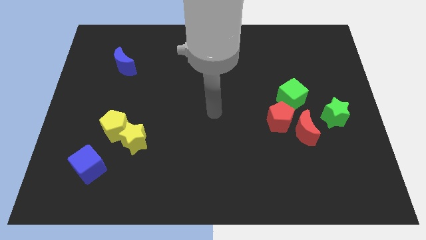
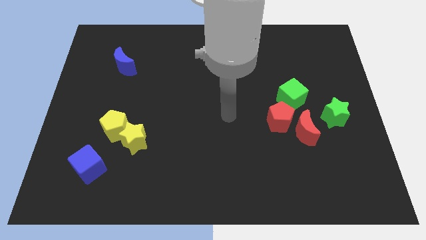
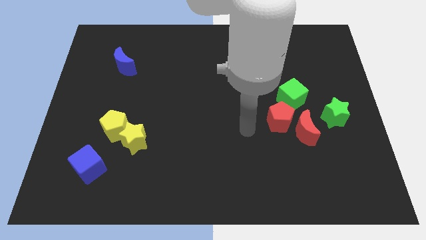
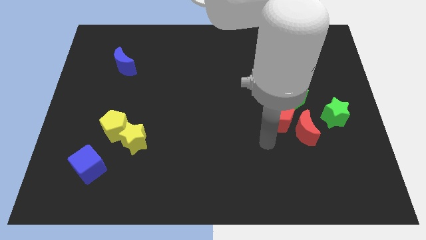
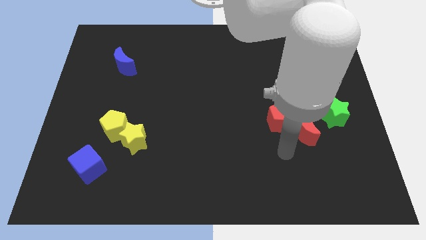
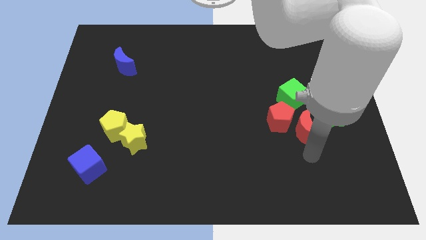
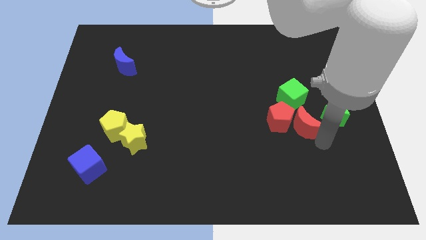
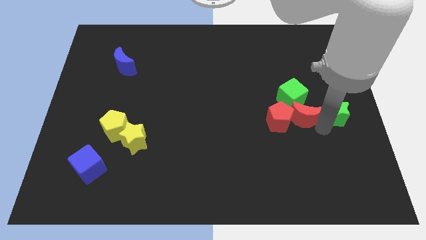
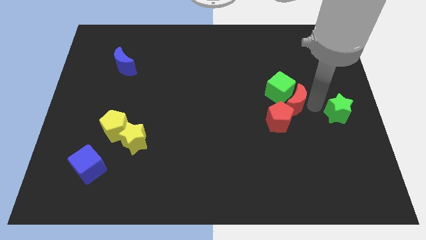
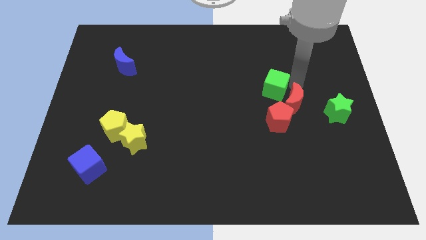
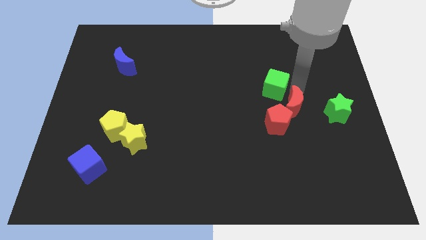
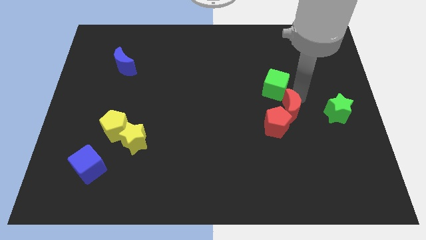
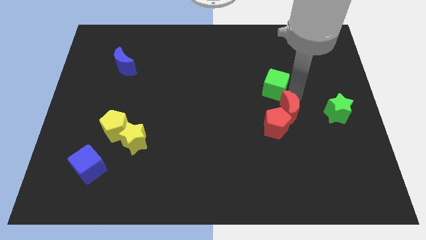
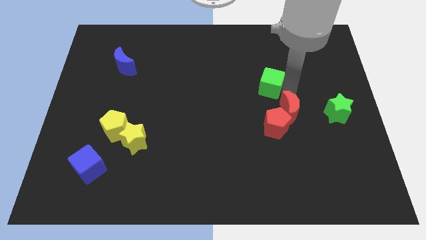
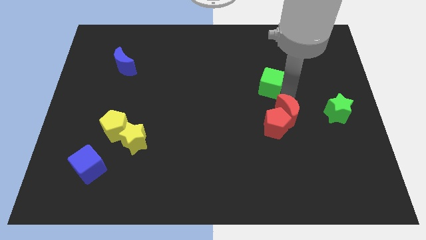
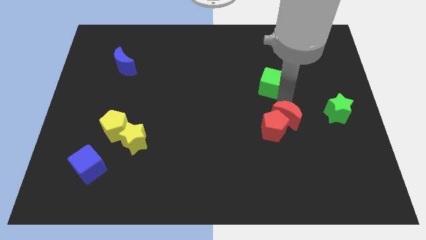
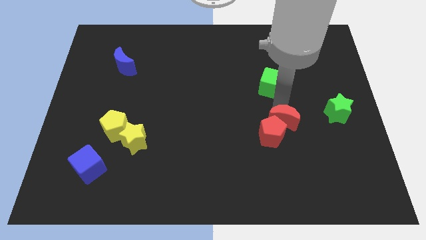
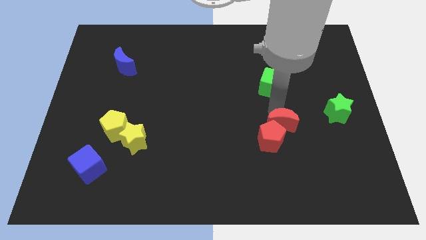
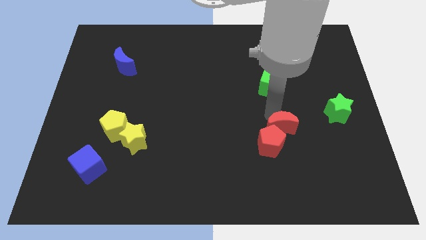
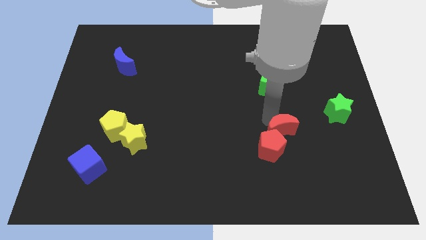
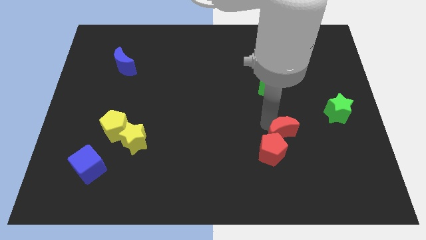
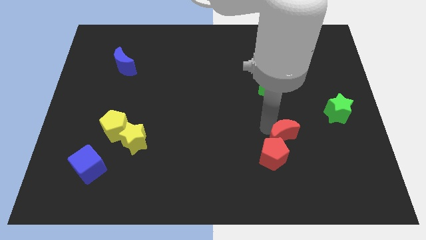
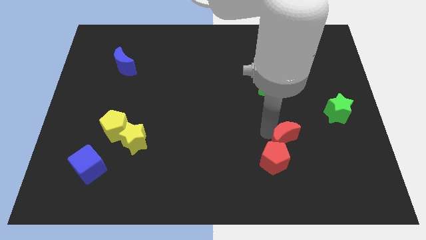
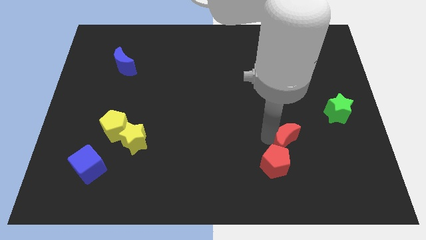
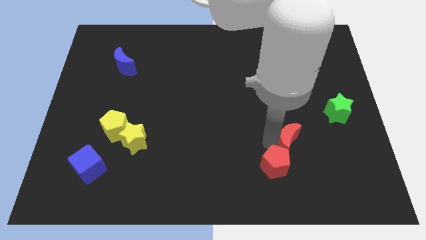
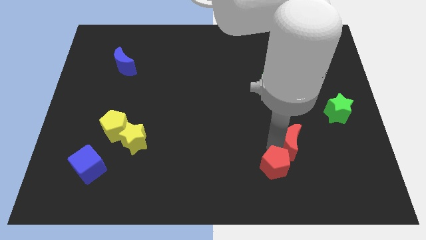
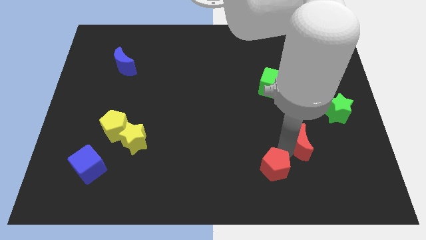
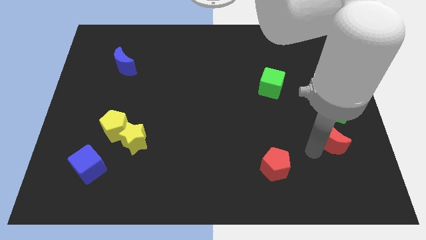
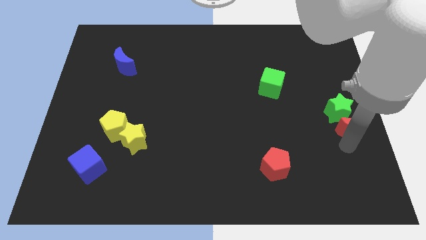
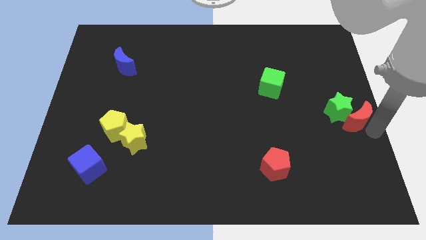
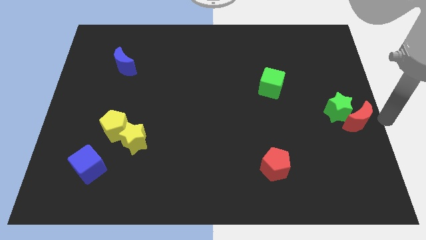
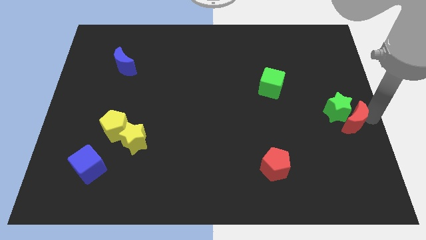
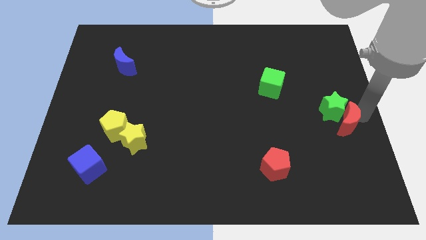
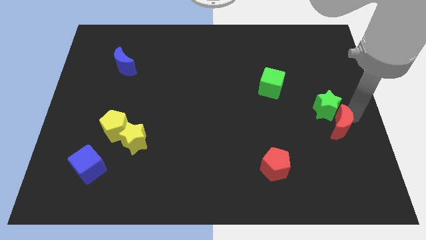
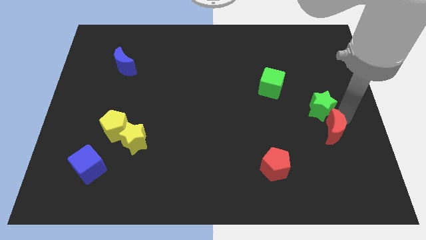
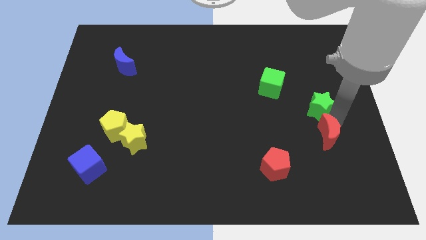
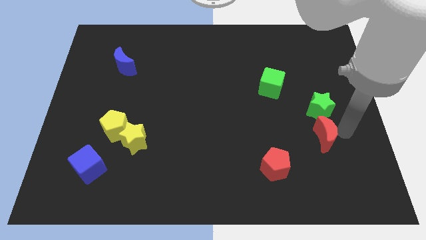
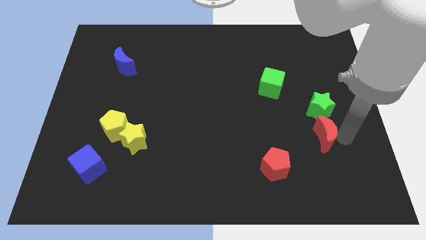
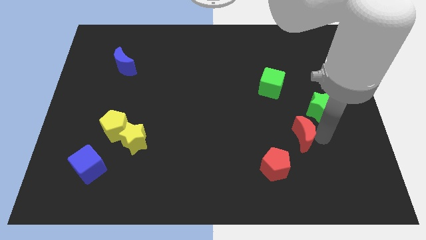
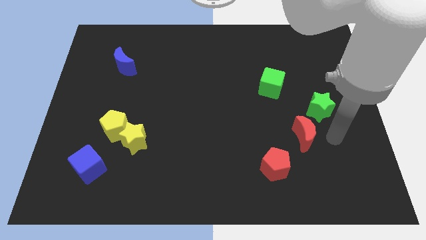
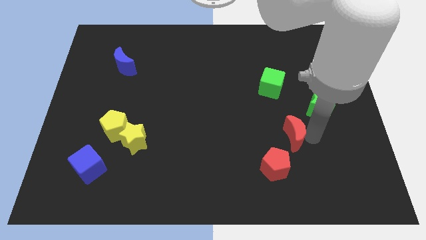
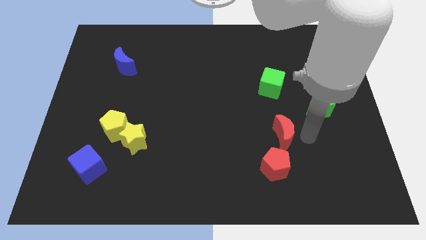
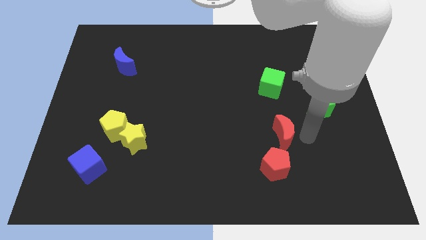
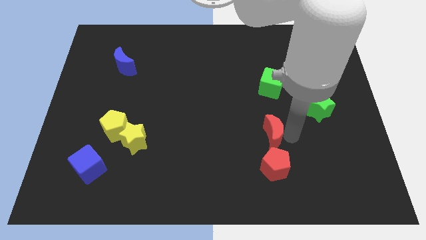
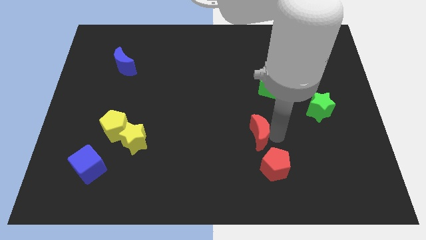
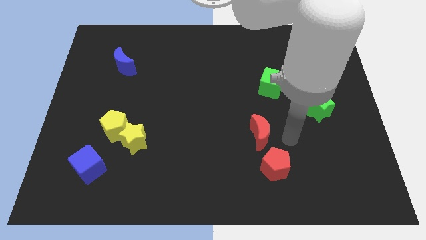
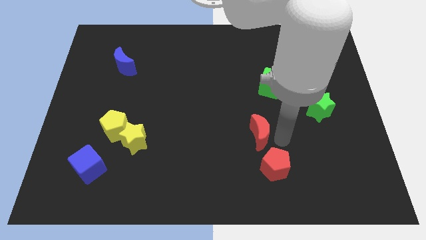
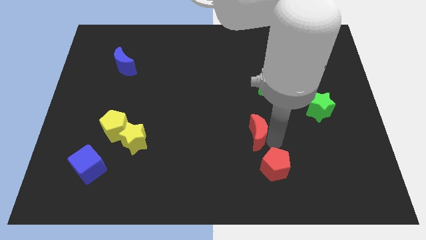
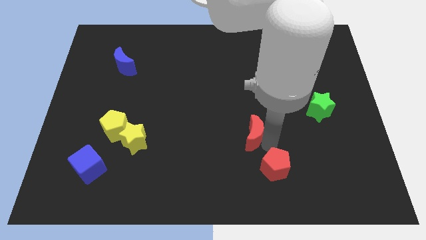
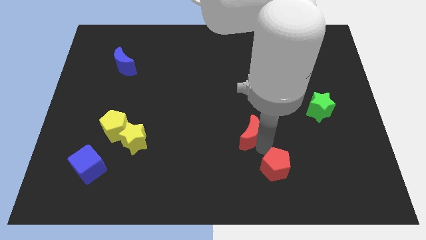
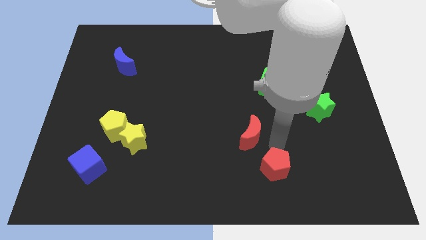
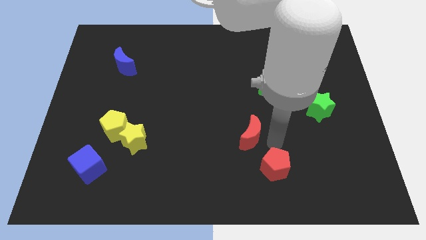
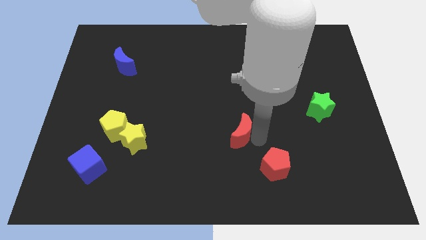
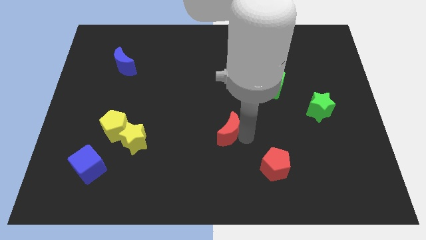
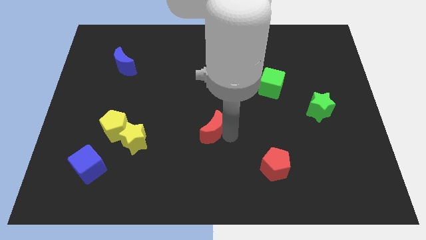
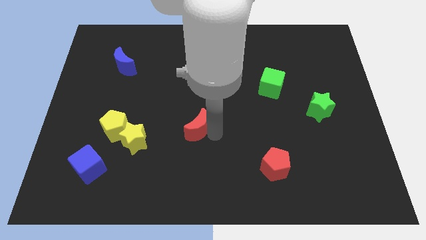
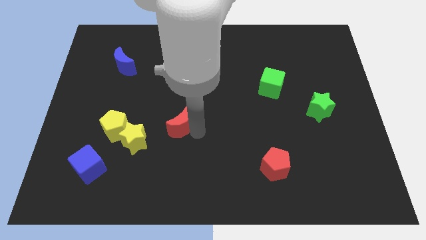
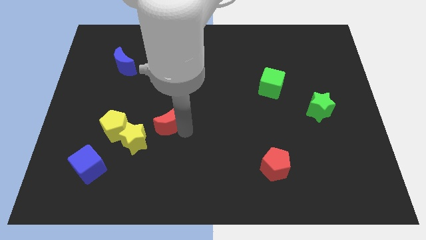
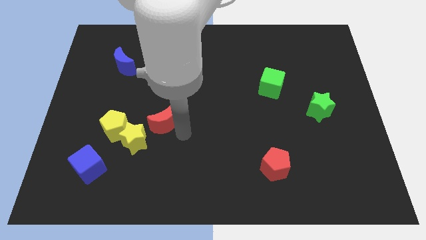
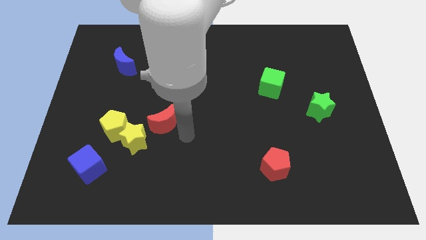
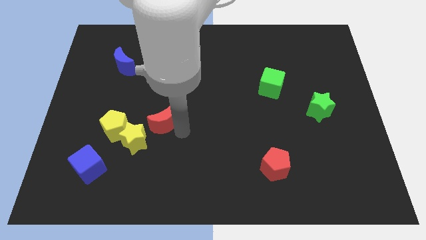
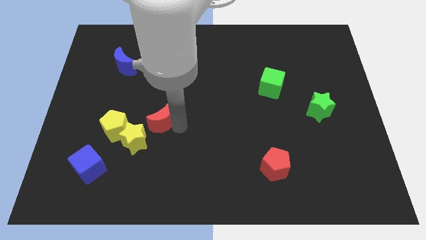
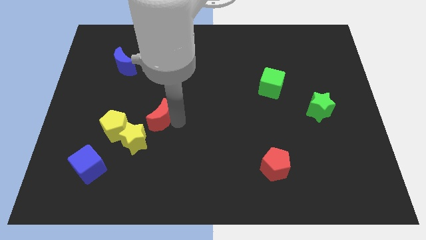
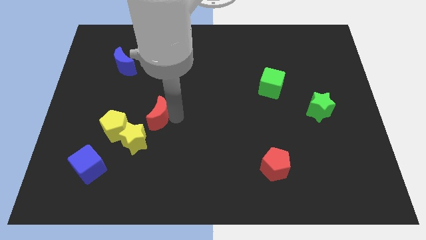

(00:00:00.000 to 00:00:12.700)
push the red moon to the top right of the yellow pentagon

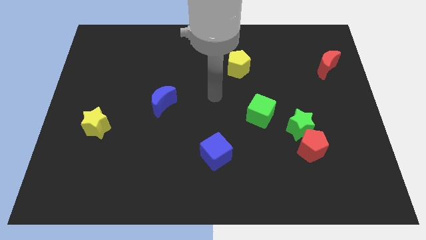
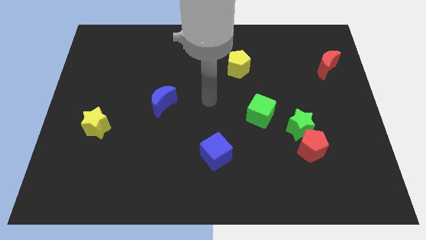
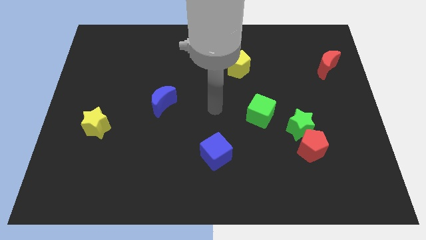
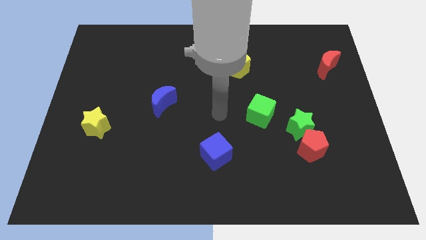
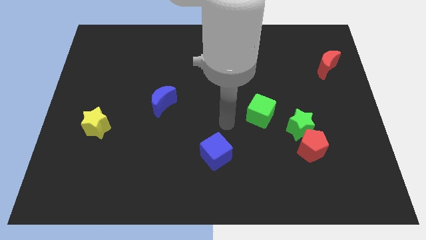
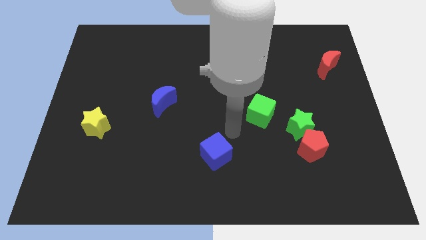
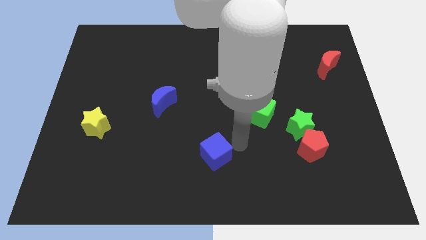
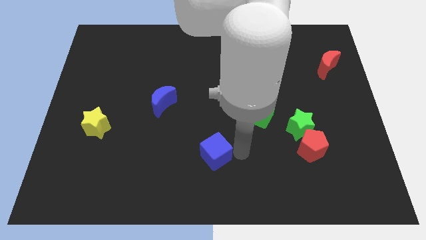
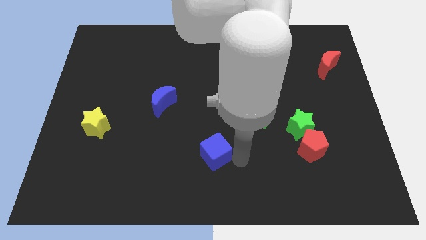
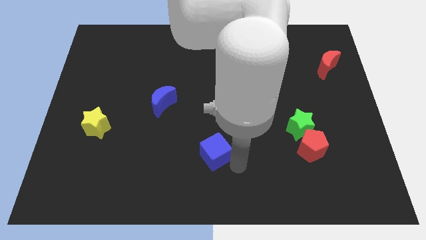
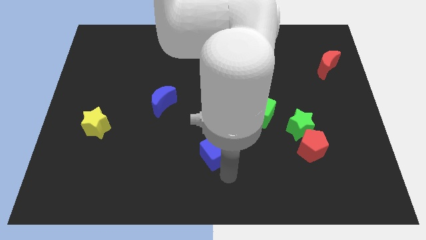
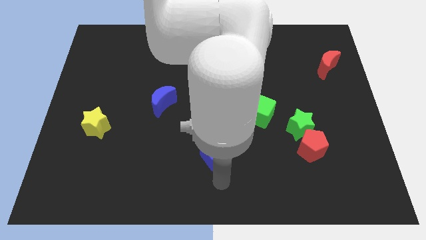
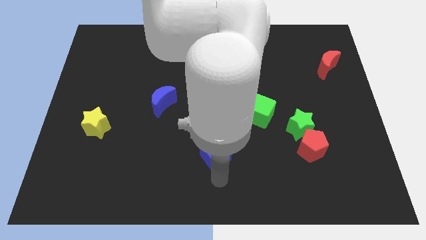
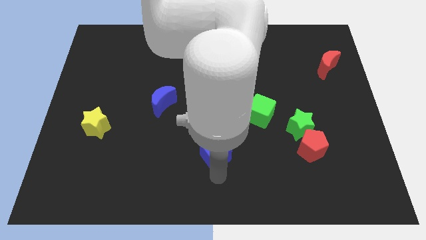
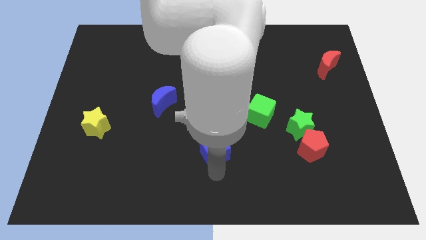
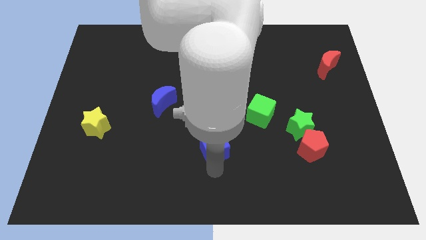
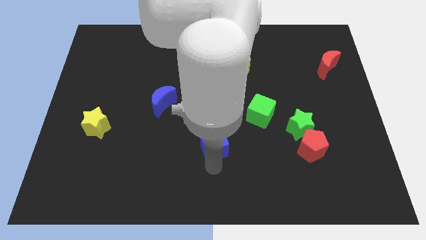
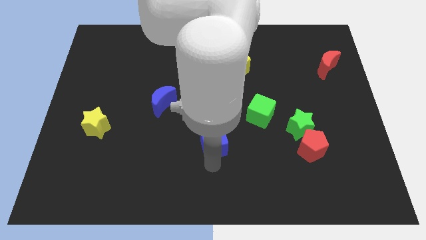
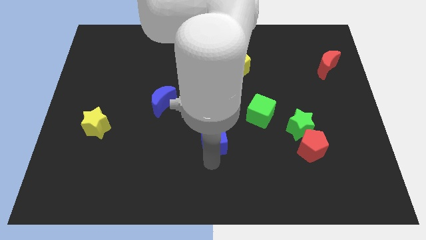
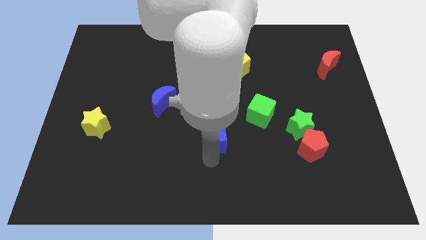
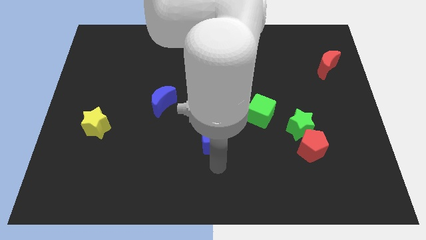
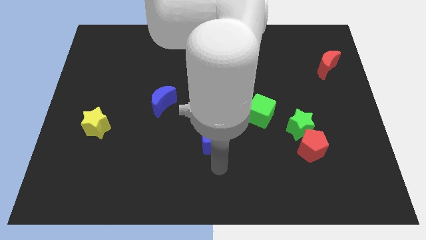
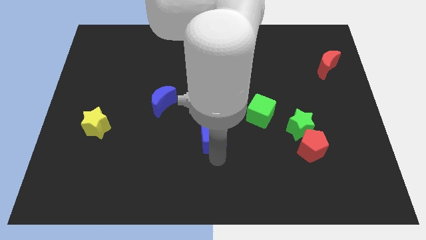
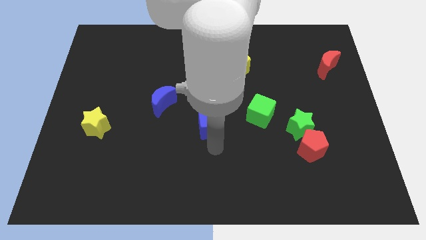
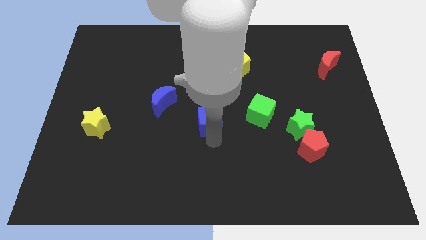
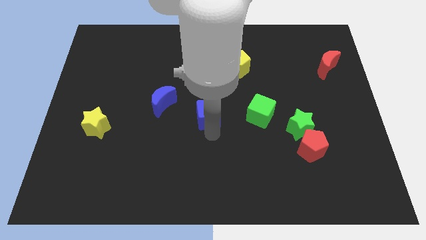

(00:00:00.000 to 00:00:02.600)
move the blue cube right of the blue moon
